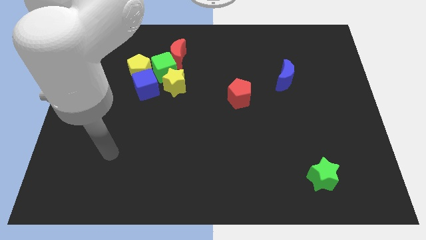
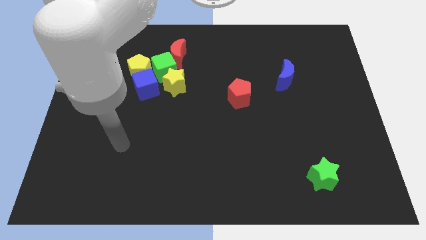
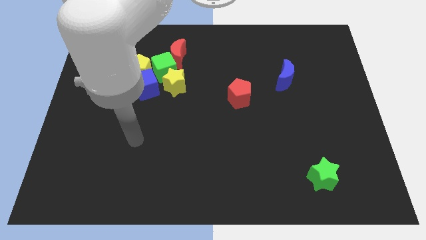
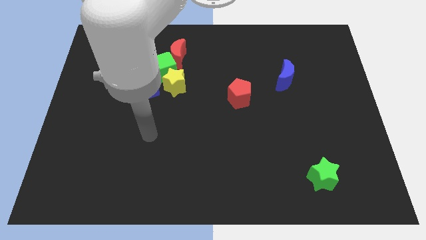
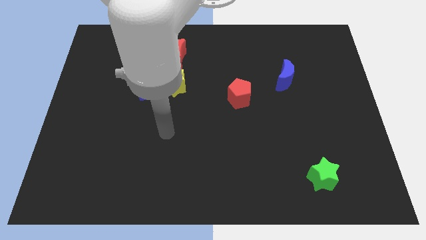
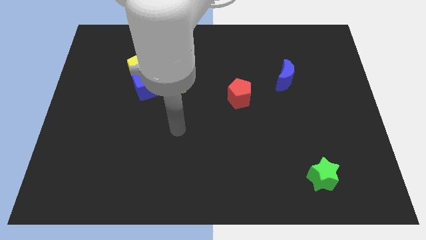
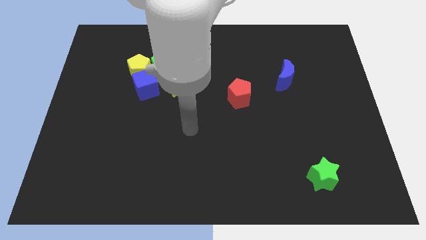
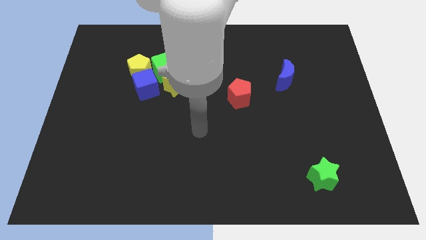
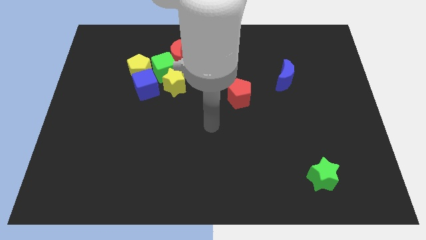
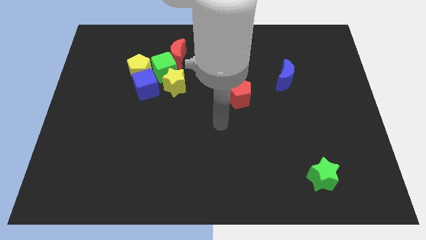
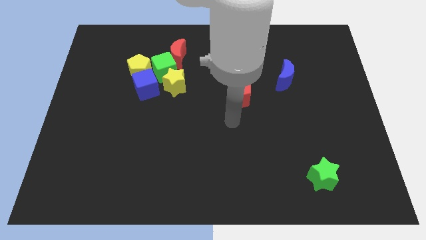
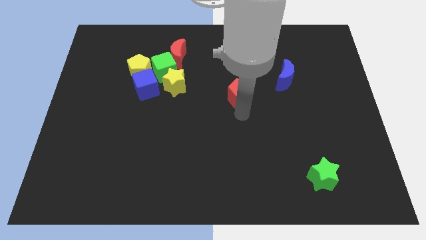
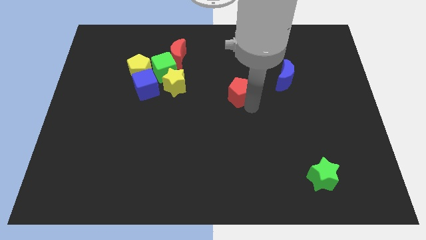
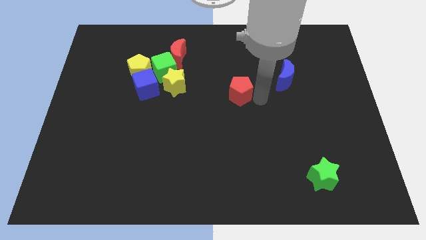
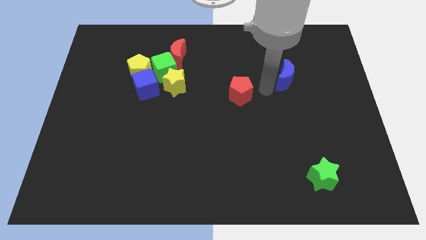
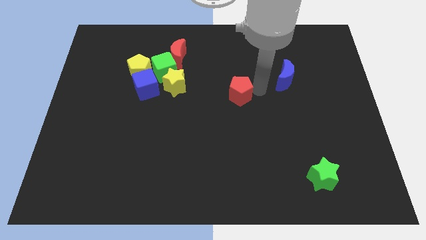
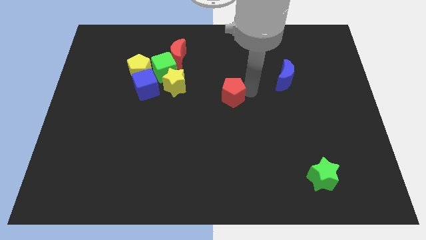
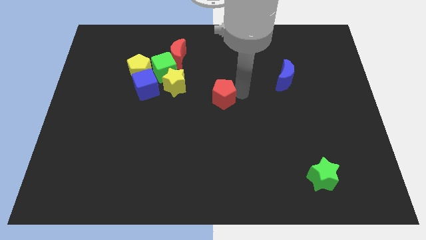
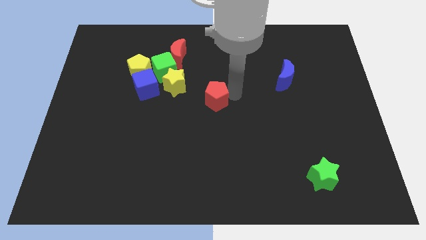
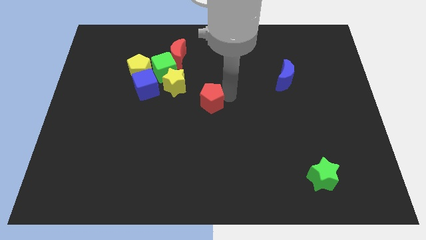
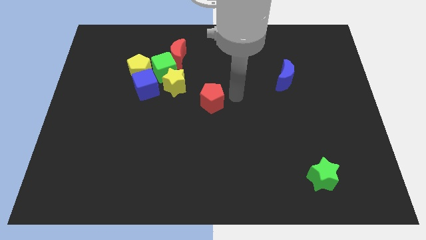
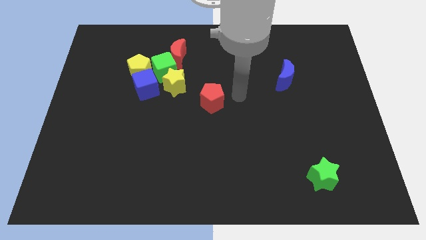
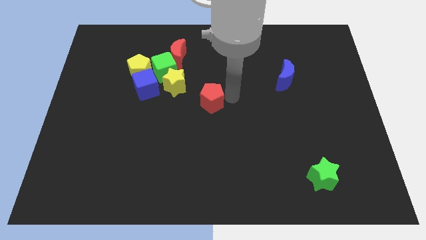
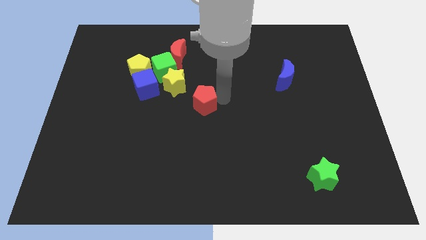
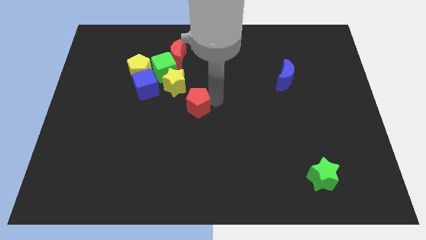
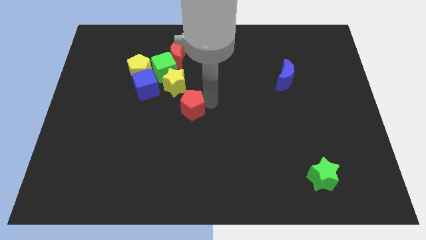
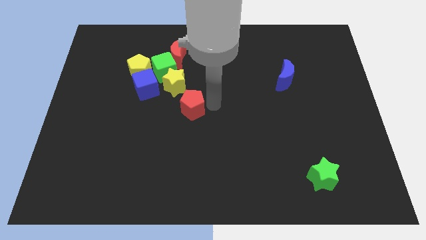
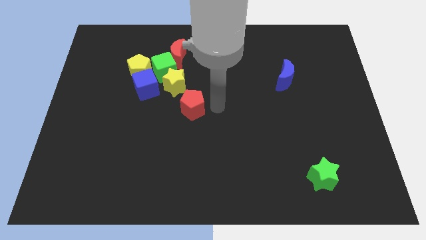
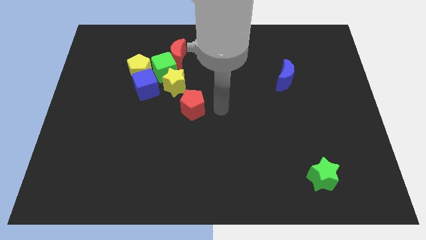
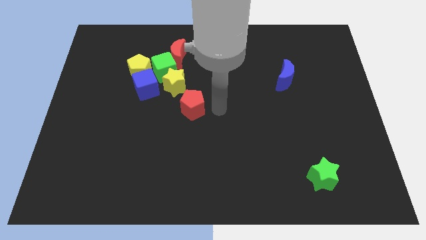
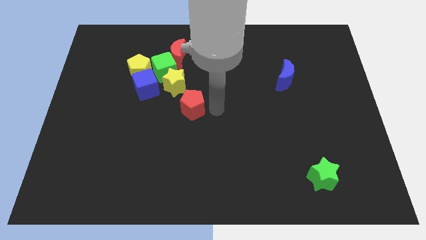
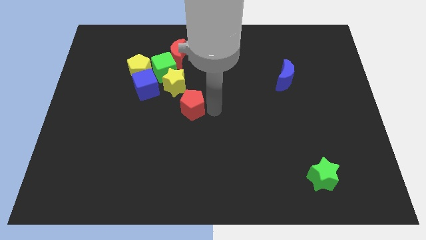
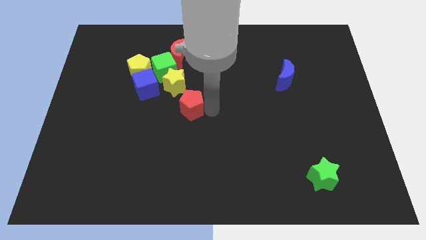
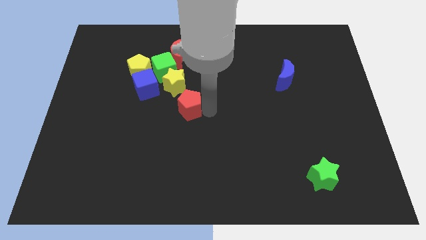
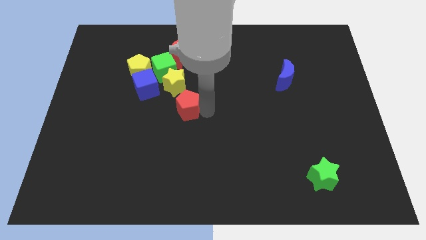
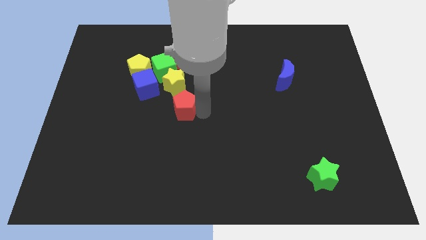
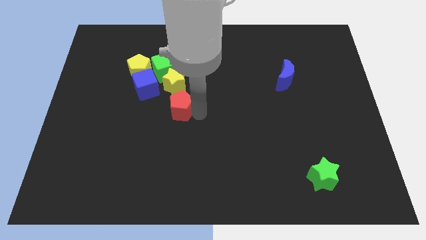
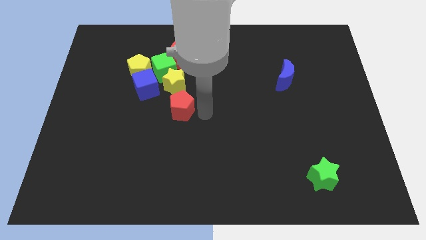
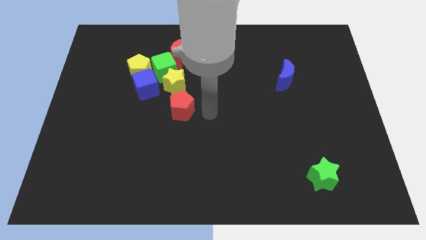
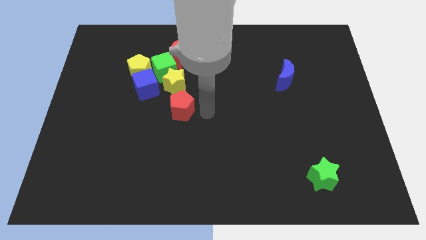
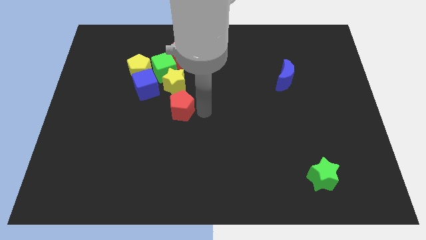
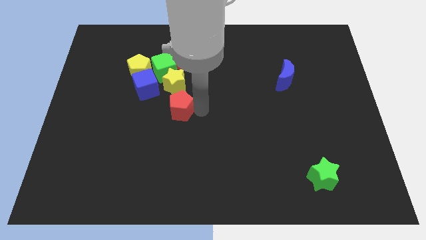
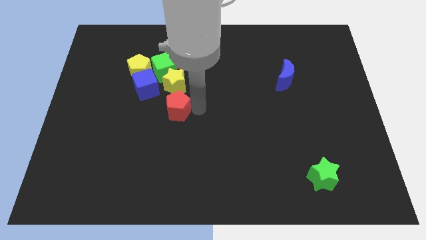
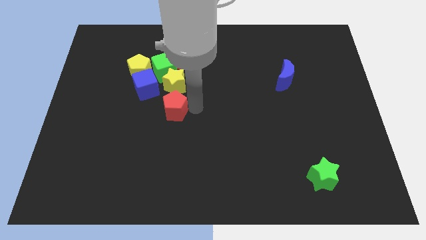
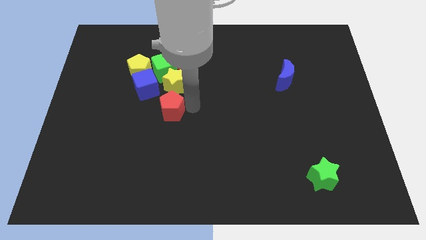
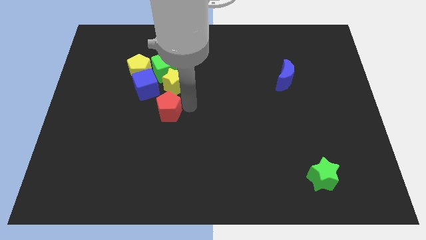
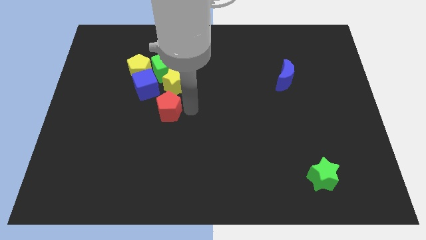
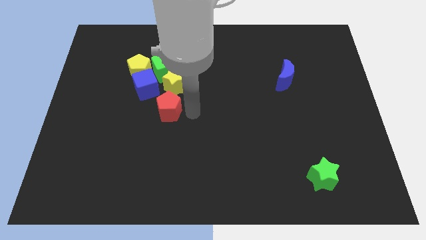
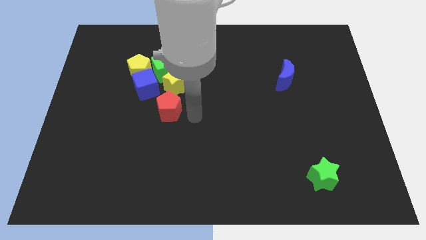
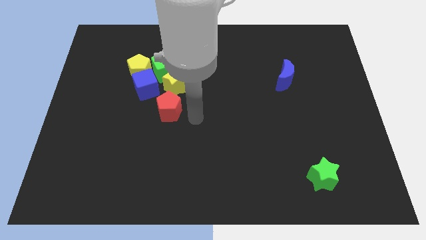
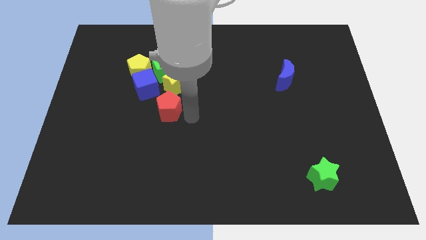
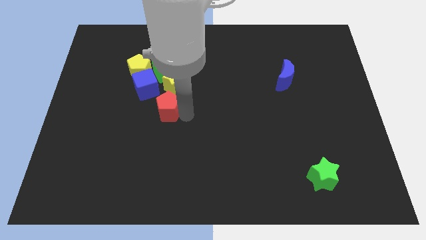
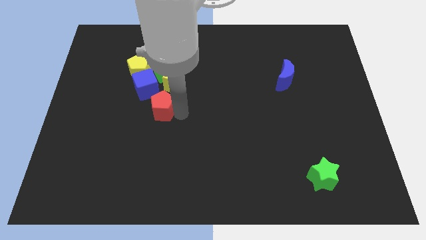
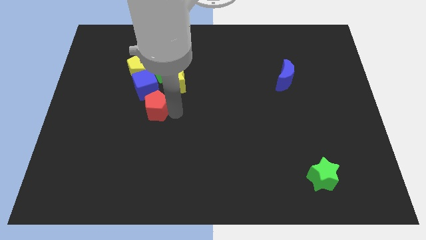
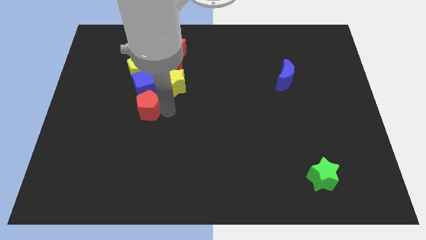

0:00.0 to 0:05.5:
move the red pentagon to the left

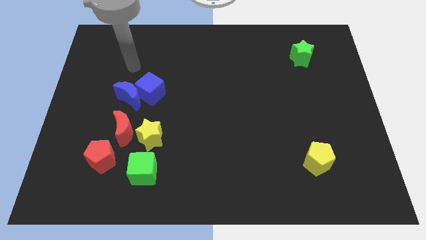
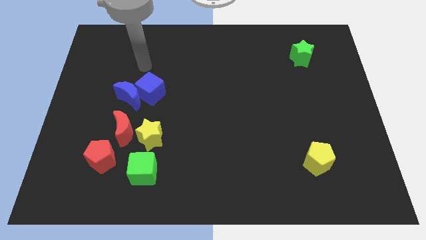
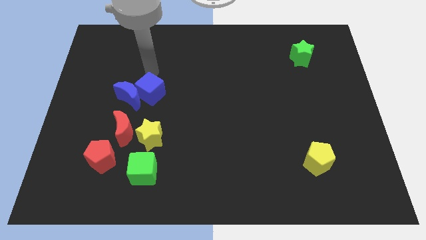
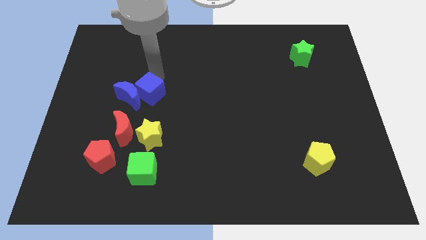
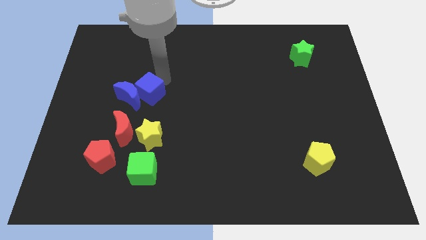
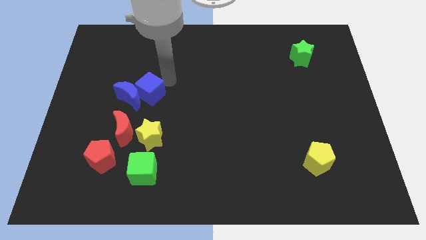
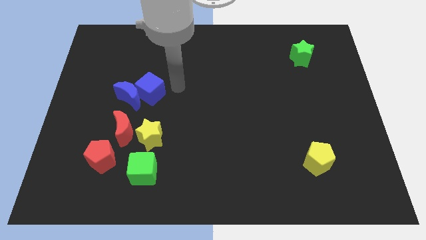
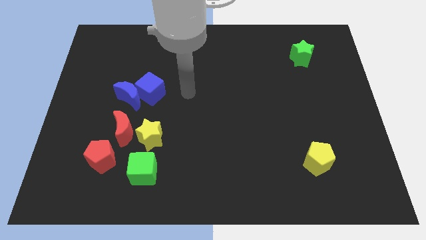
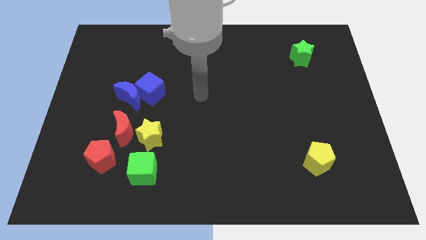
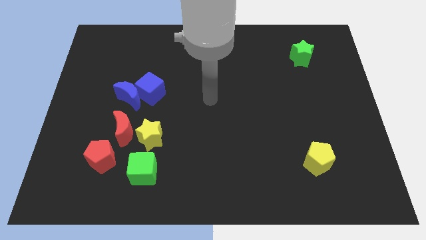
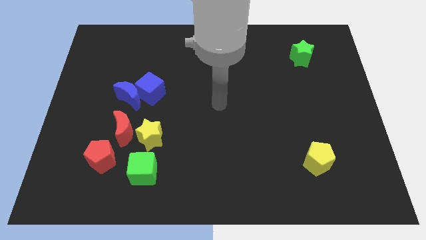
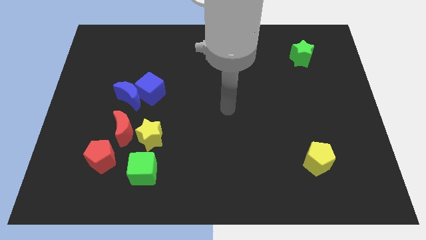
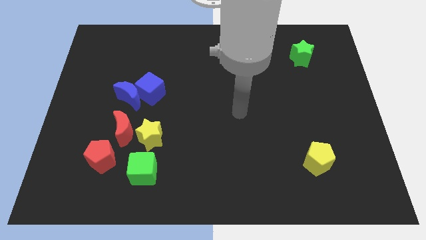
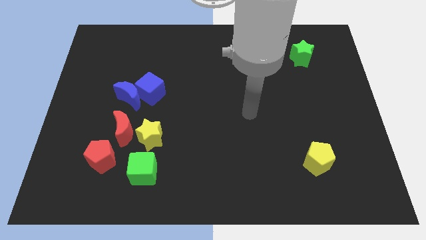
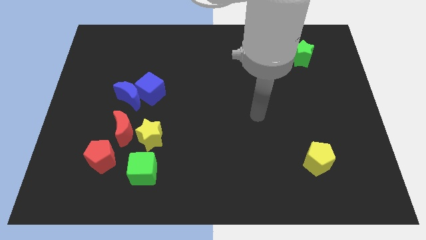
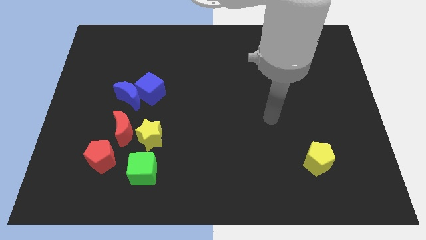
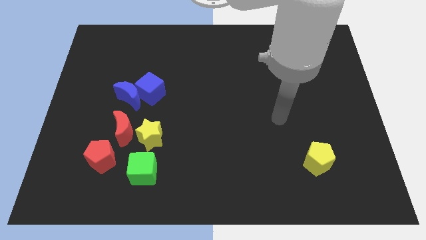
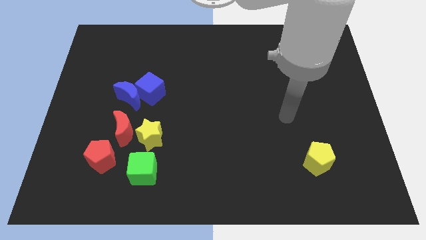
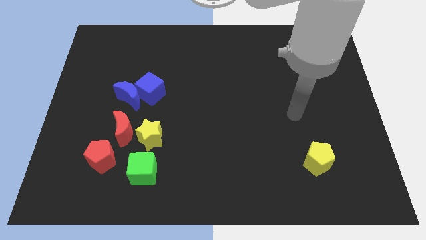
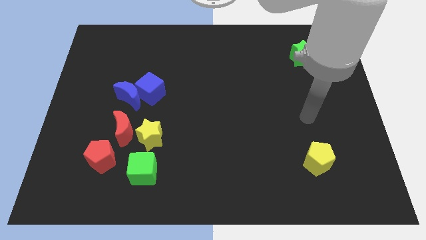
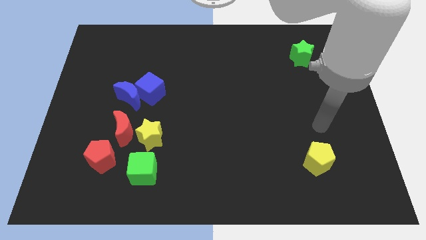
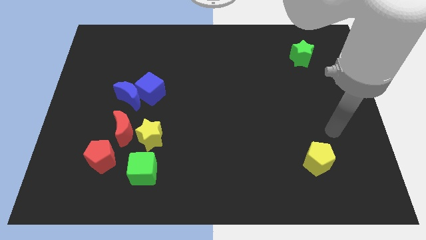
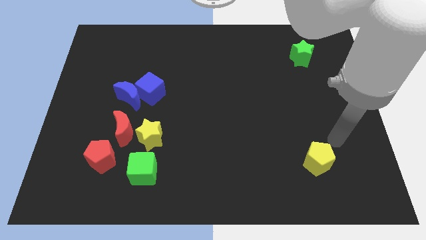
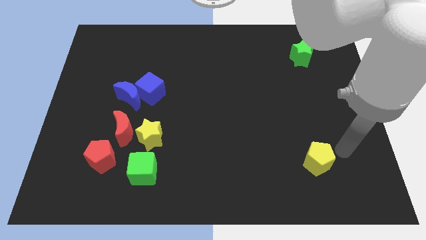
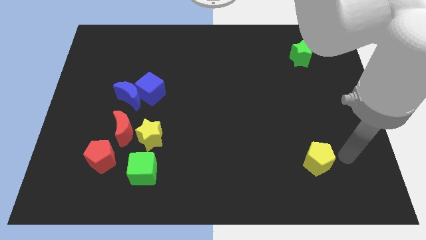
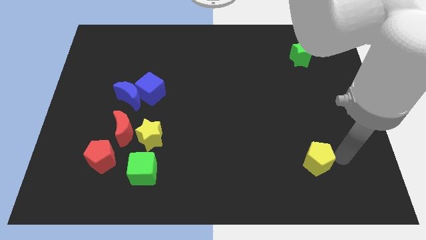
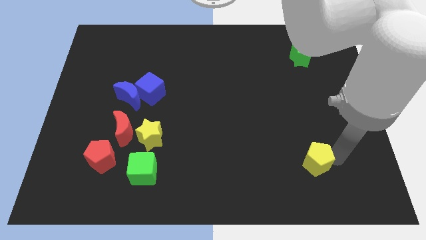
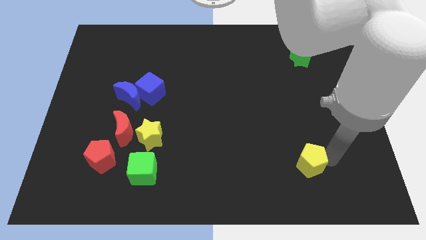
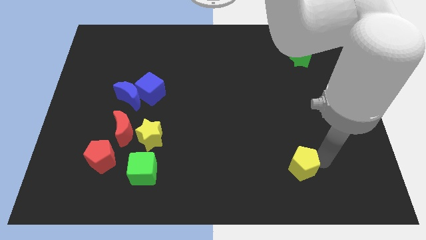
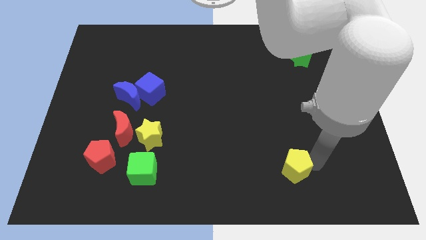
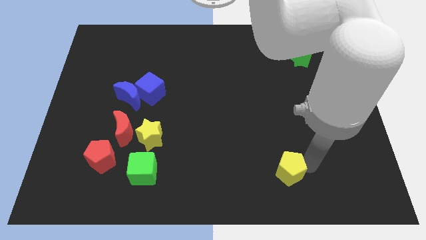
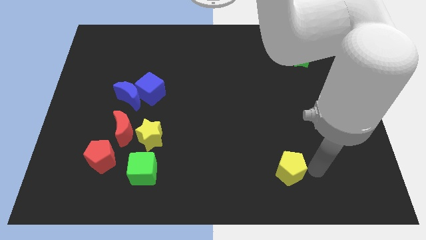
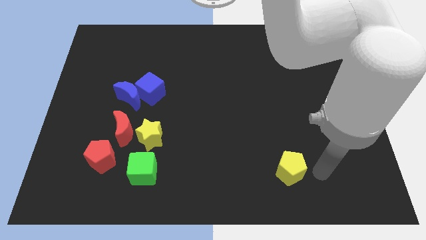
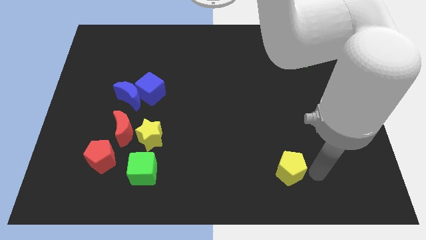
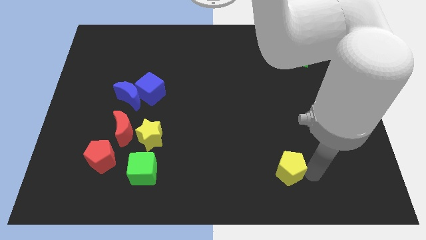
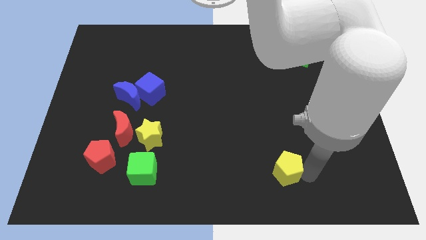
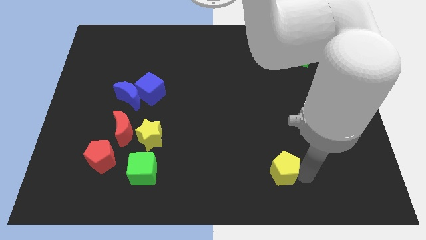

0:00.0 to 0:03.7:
slightly move the yellow pentagon left
